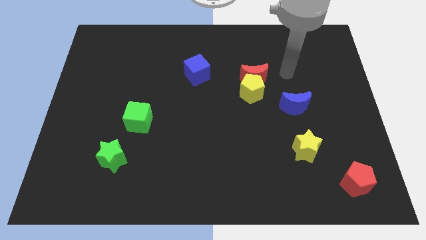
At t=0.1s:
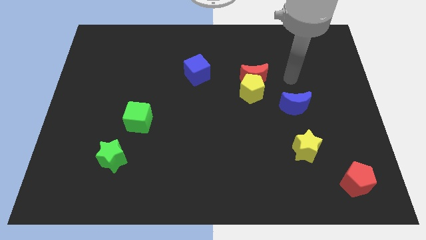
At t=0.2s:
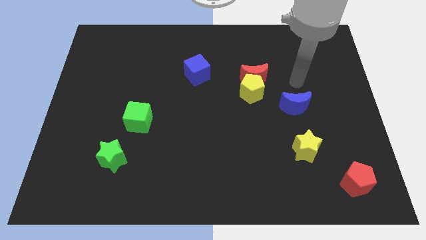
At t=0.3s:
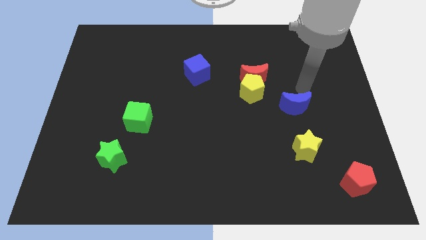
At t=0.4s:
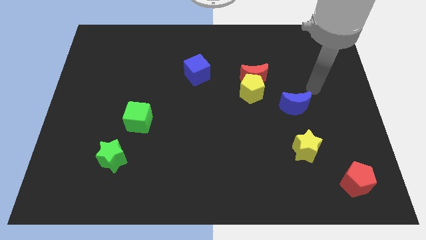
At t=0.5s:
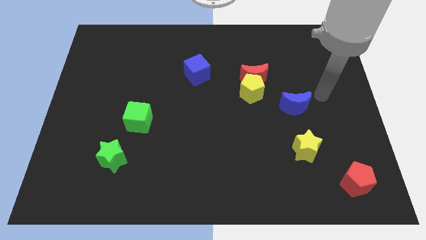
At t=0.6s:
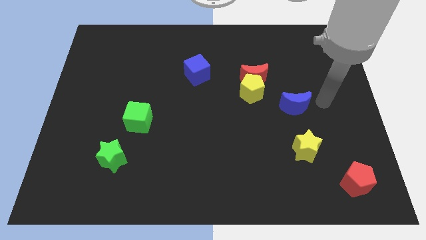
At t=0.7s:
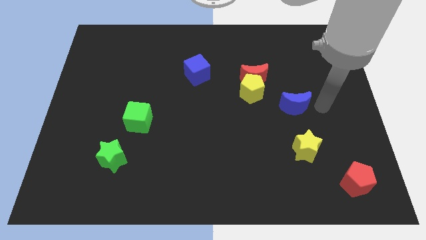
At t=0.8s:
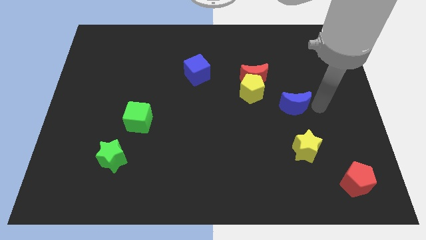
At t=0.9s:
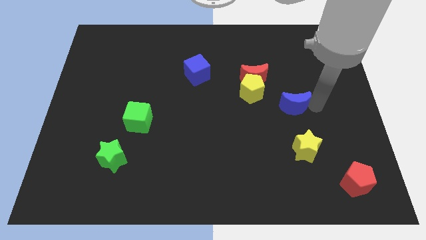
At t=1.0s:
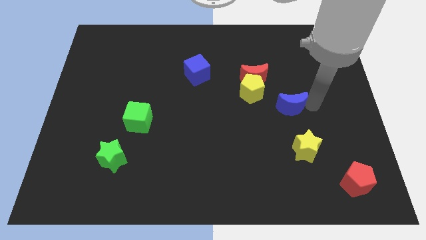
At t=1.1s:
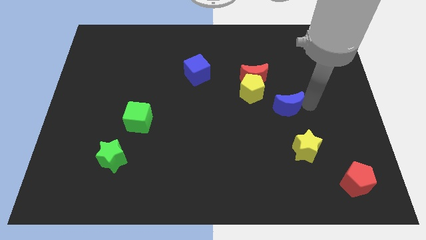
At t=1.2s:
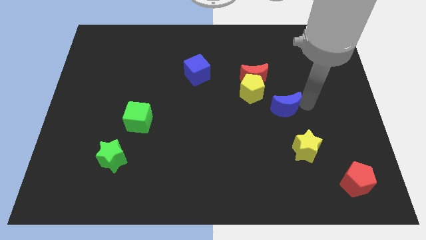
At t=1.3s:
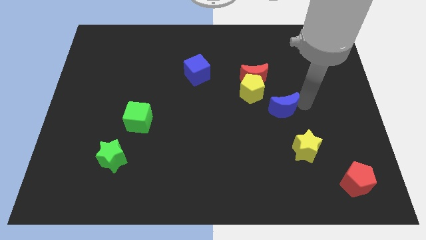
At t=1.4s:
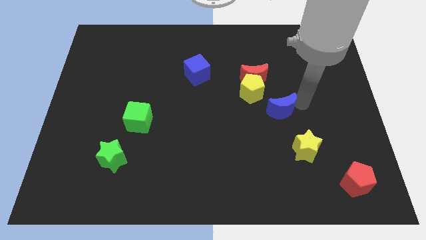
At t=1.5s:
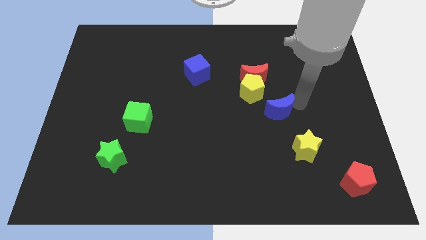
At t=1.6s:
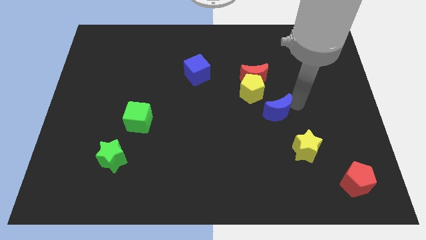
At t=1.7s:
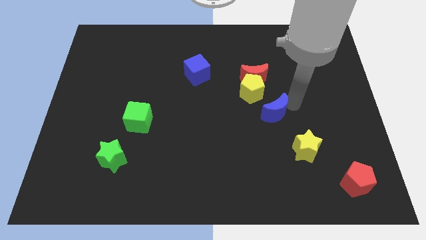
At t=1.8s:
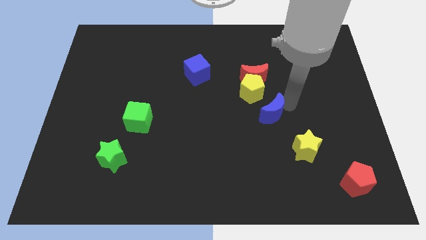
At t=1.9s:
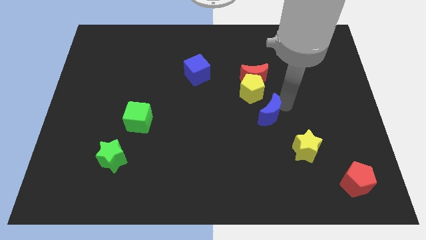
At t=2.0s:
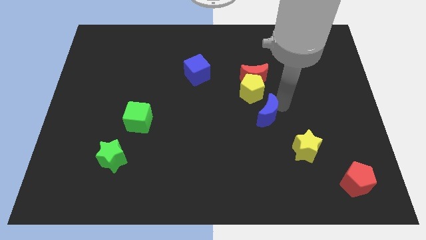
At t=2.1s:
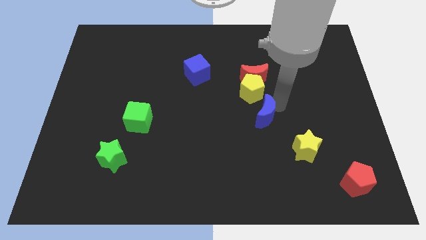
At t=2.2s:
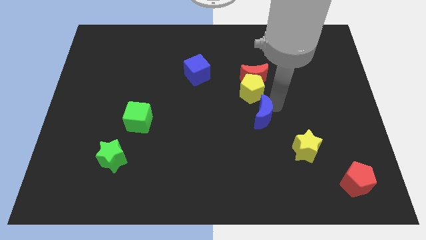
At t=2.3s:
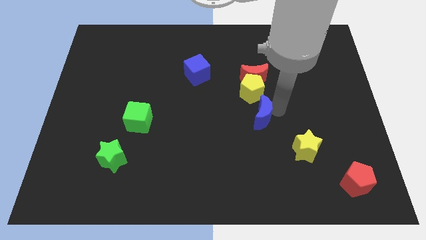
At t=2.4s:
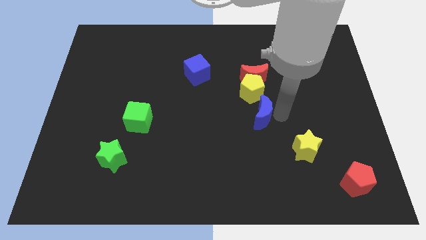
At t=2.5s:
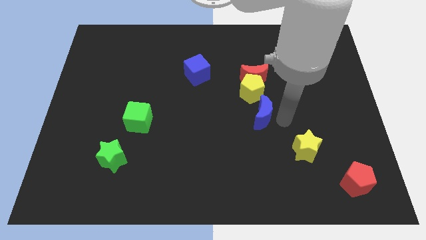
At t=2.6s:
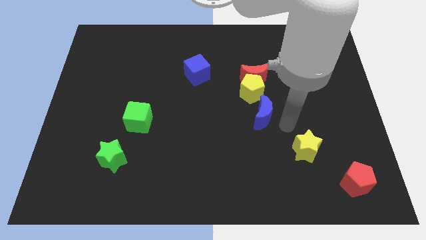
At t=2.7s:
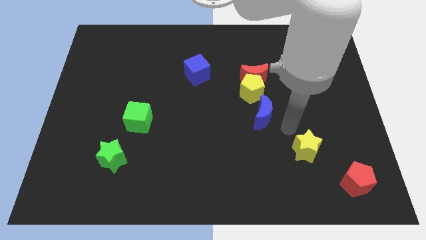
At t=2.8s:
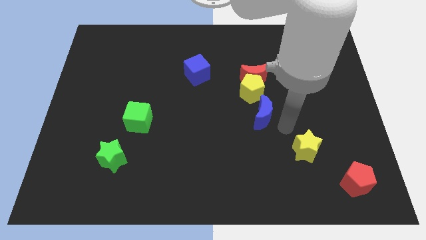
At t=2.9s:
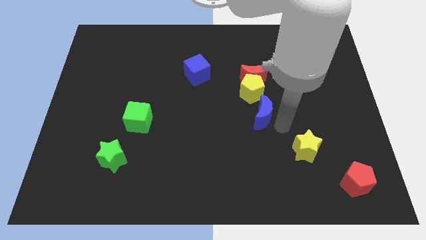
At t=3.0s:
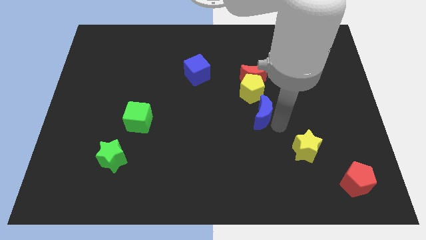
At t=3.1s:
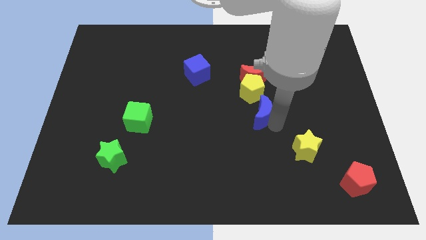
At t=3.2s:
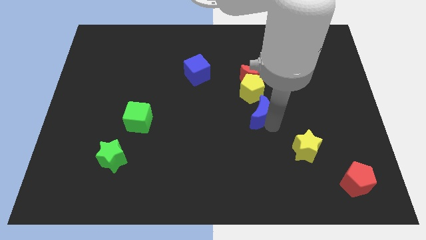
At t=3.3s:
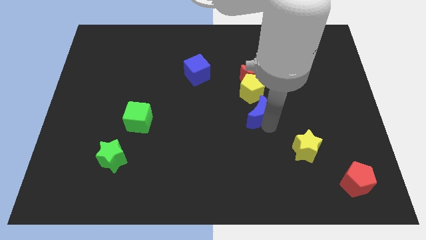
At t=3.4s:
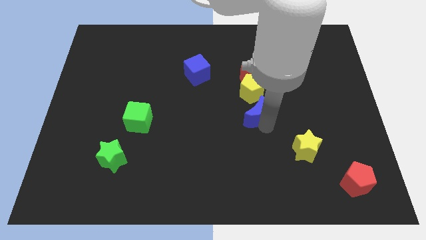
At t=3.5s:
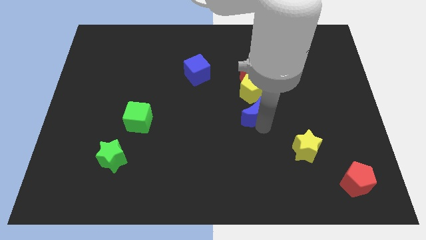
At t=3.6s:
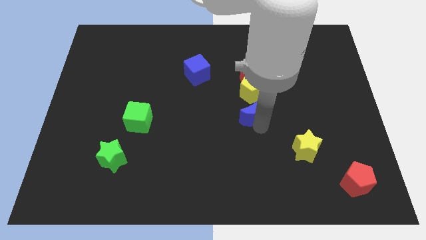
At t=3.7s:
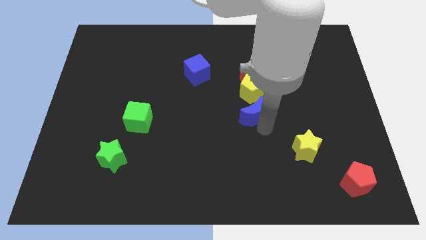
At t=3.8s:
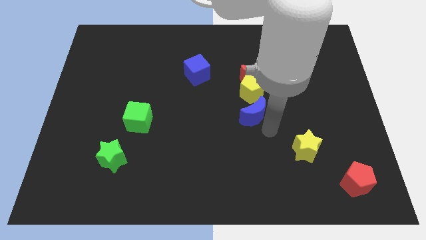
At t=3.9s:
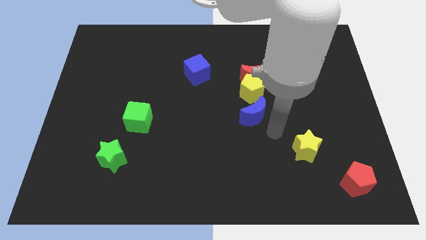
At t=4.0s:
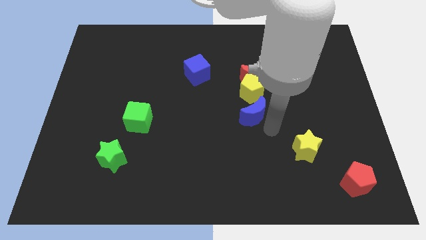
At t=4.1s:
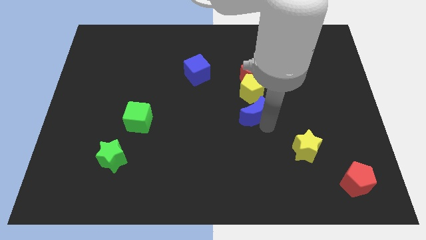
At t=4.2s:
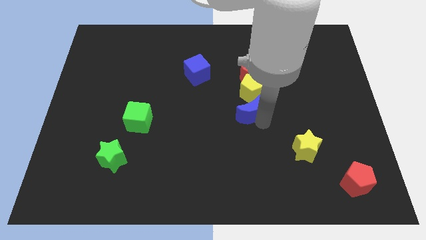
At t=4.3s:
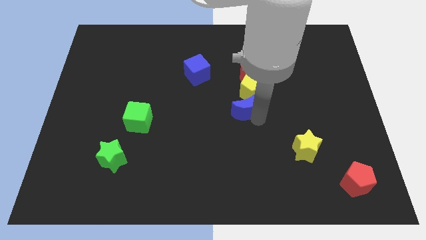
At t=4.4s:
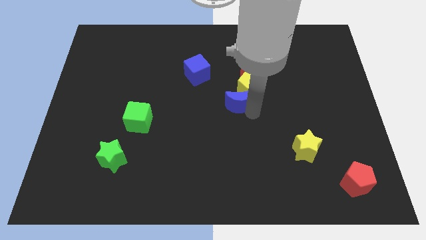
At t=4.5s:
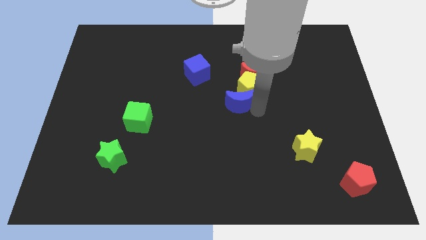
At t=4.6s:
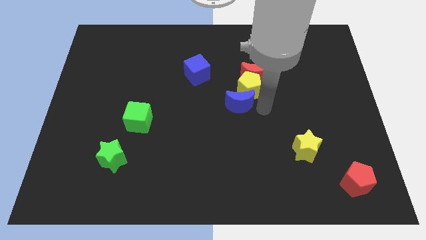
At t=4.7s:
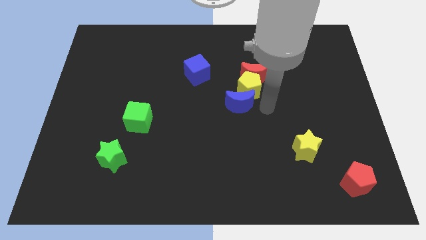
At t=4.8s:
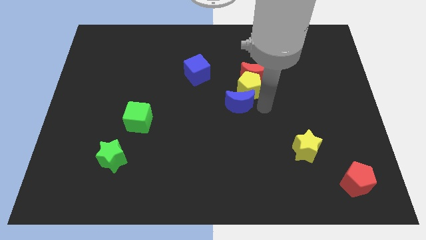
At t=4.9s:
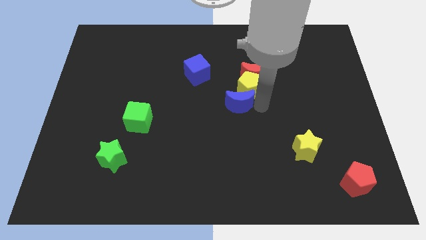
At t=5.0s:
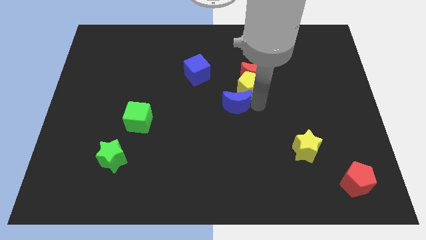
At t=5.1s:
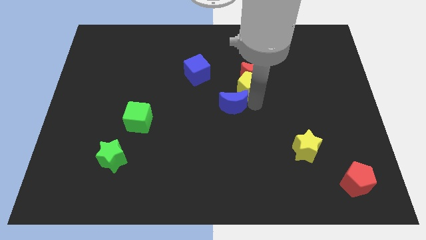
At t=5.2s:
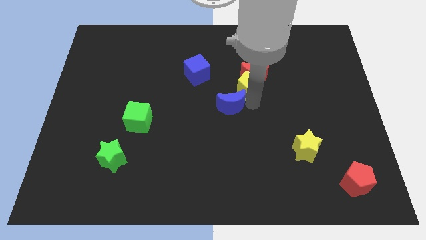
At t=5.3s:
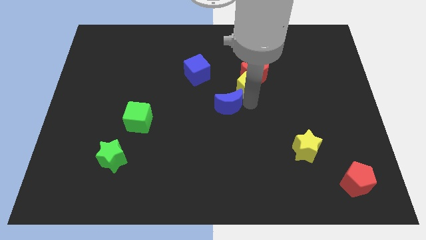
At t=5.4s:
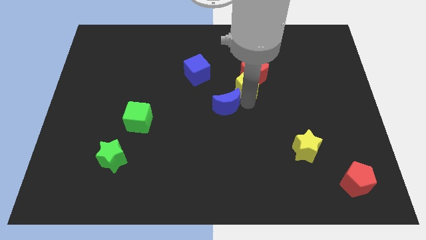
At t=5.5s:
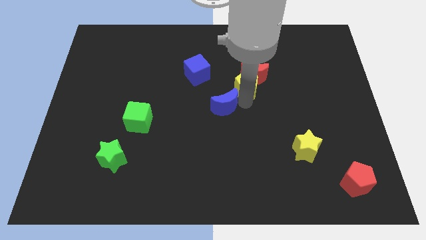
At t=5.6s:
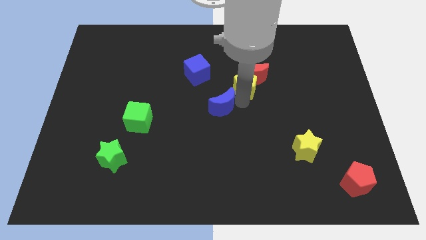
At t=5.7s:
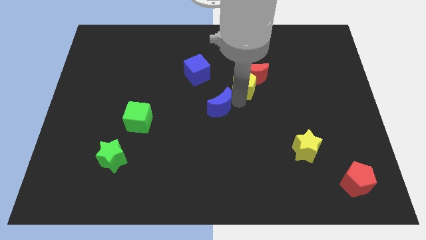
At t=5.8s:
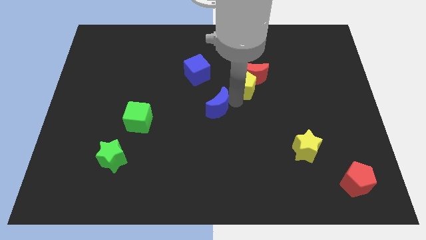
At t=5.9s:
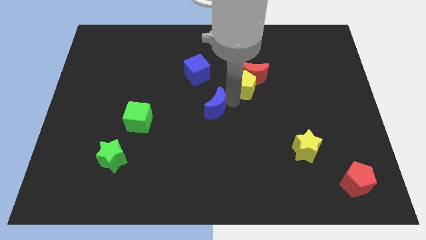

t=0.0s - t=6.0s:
move the blue moon to the bottom of the blue cube

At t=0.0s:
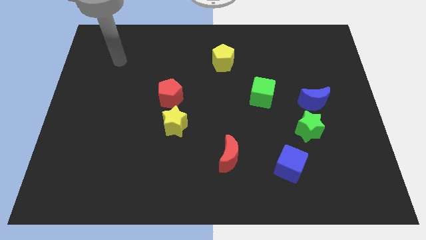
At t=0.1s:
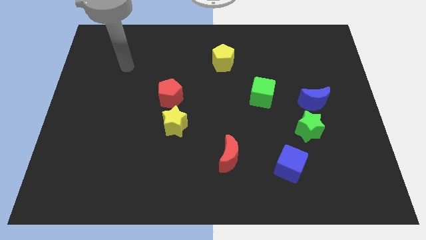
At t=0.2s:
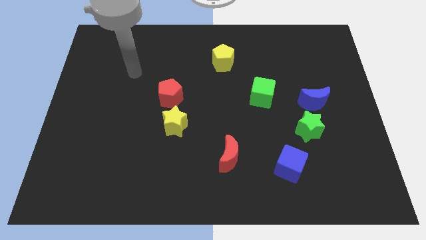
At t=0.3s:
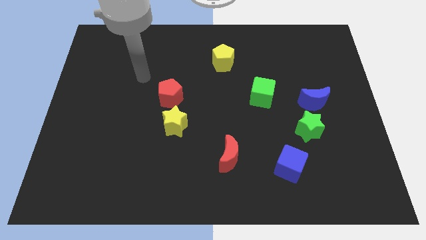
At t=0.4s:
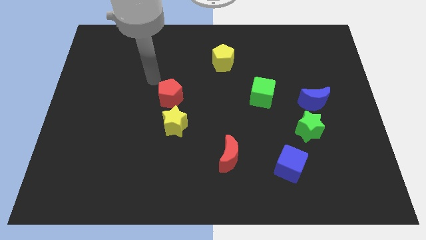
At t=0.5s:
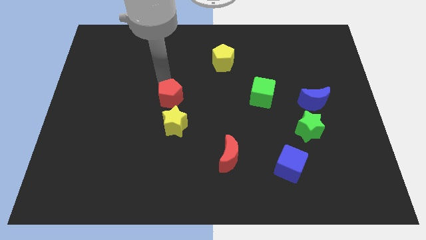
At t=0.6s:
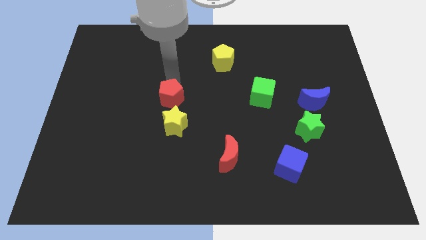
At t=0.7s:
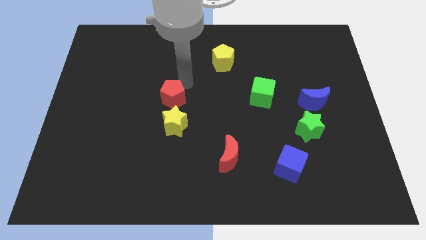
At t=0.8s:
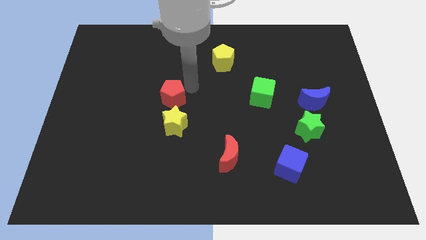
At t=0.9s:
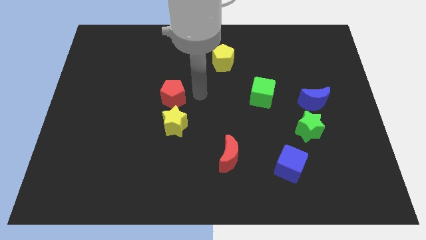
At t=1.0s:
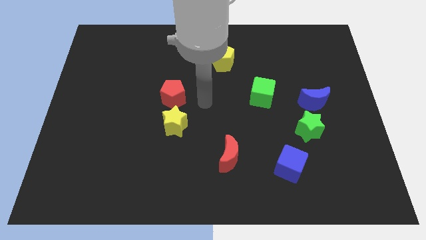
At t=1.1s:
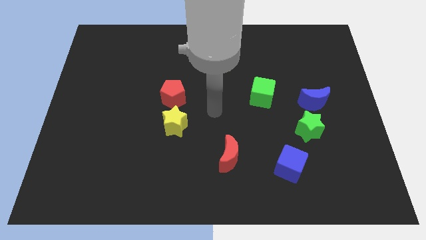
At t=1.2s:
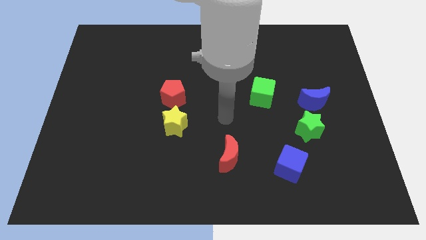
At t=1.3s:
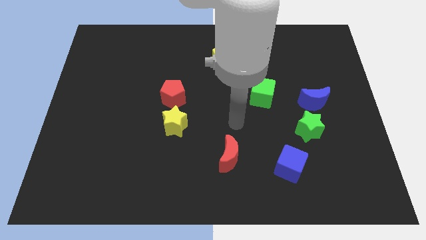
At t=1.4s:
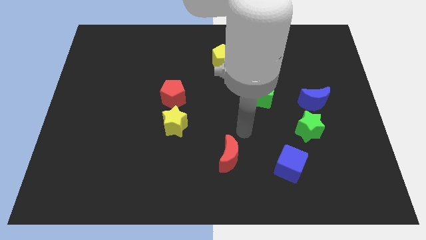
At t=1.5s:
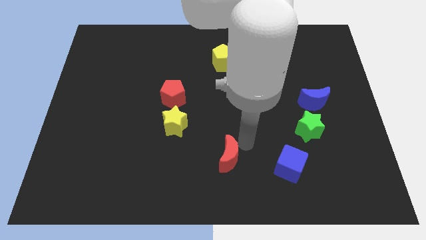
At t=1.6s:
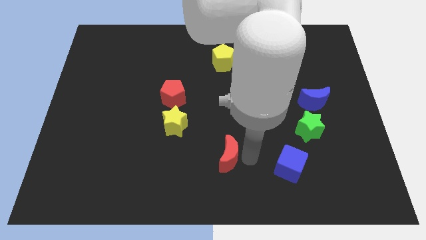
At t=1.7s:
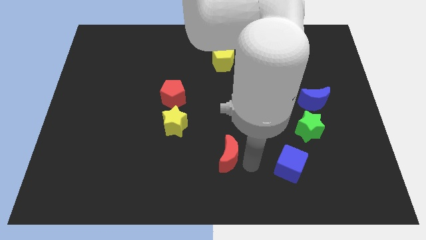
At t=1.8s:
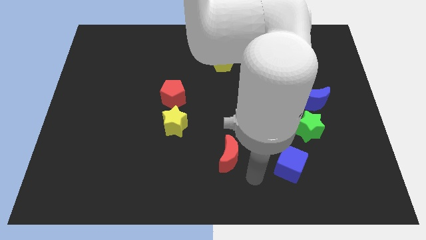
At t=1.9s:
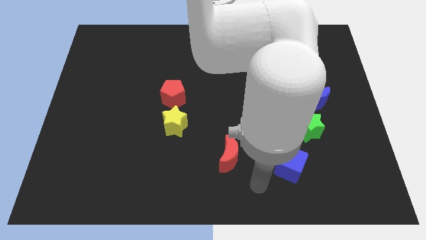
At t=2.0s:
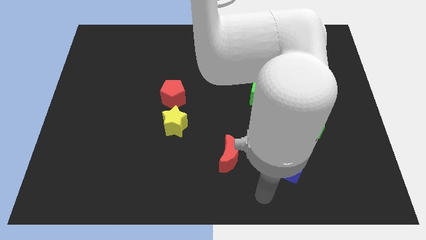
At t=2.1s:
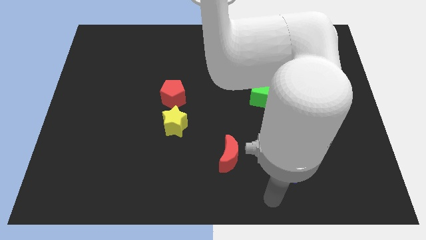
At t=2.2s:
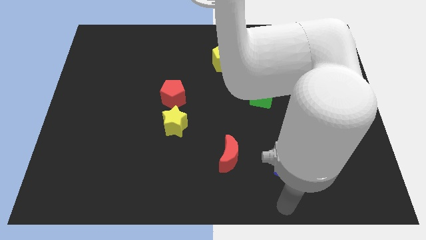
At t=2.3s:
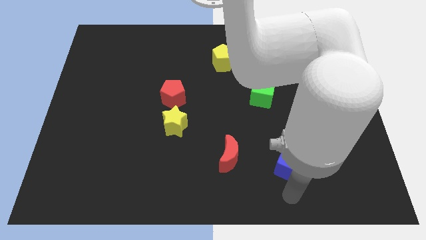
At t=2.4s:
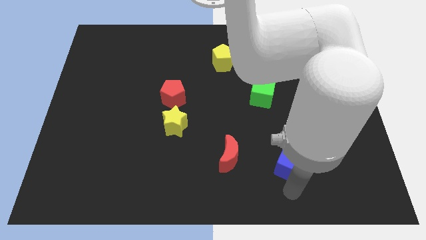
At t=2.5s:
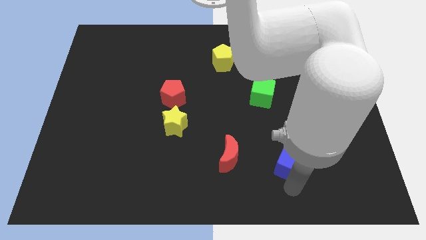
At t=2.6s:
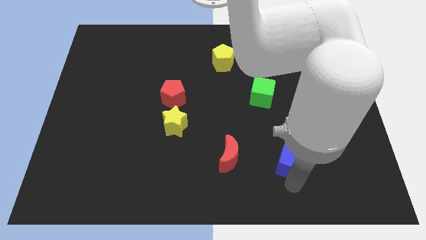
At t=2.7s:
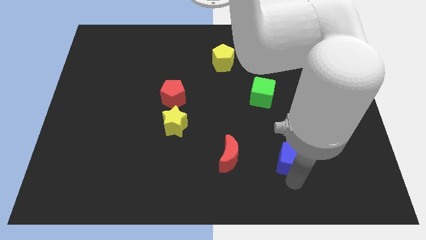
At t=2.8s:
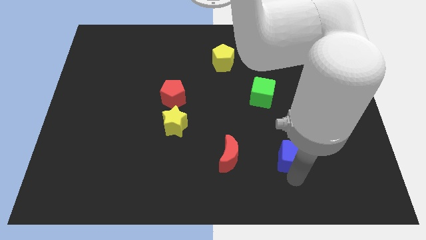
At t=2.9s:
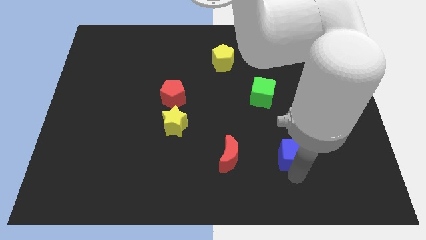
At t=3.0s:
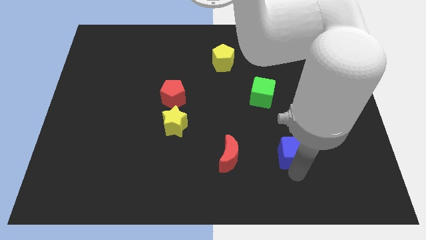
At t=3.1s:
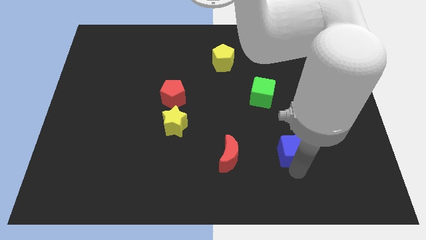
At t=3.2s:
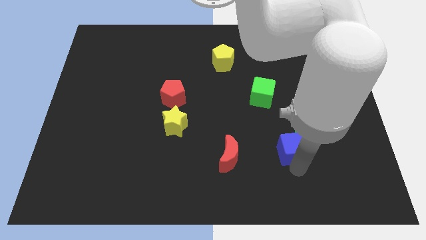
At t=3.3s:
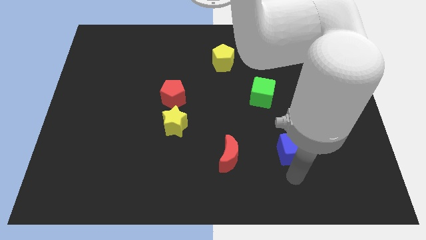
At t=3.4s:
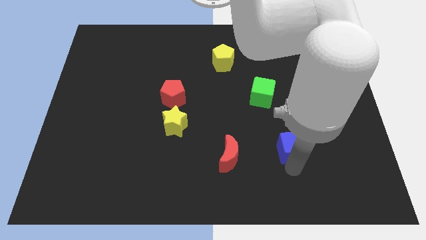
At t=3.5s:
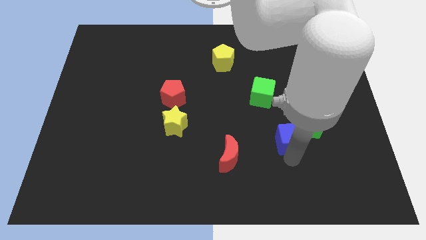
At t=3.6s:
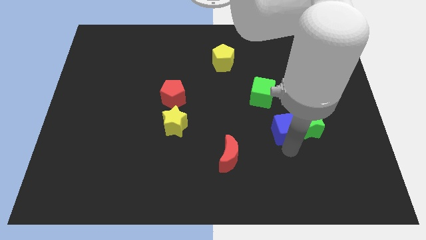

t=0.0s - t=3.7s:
move the blue cube to the bottom right side of the green cube
